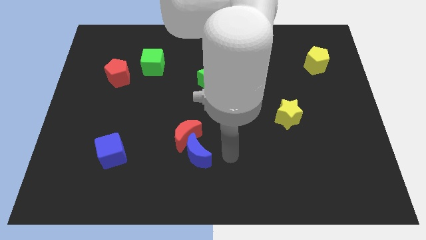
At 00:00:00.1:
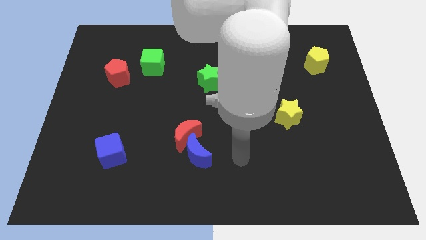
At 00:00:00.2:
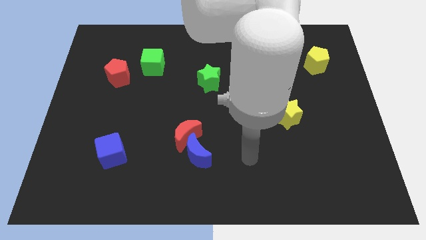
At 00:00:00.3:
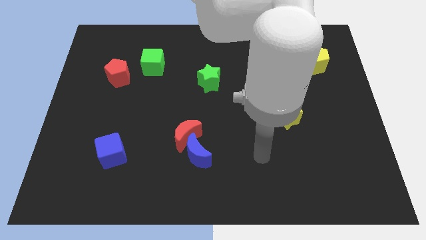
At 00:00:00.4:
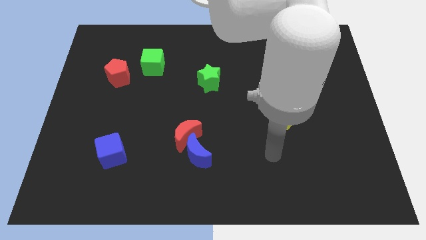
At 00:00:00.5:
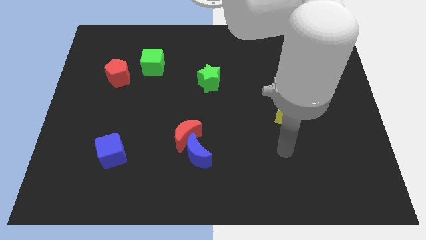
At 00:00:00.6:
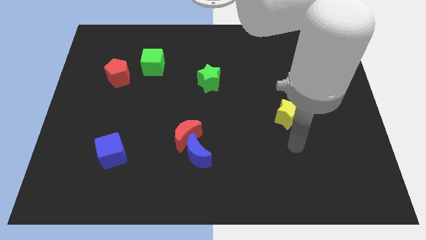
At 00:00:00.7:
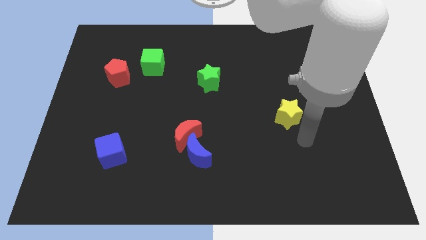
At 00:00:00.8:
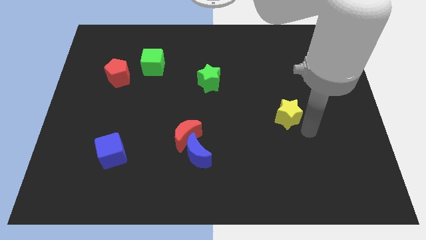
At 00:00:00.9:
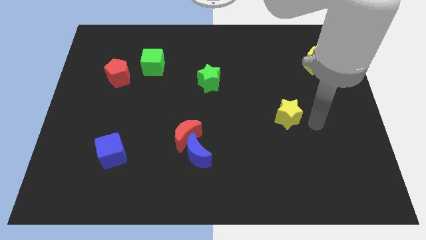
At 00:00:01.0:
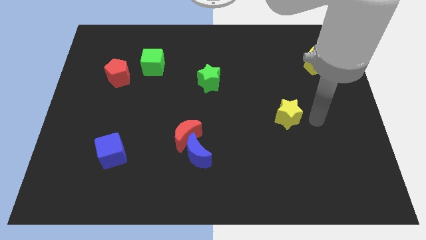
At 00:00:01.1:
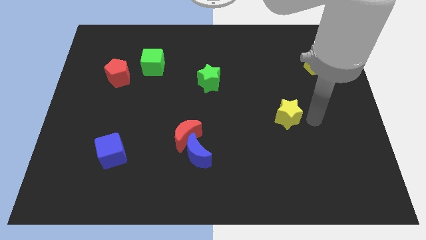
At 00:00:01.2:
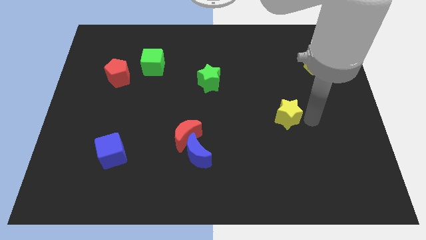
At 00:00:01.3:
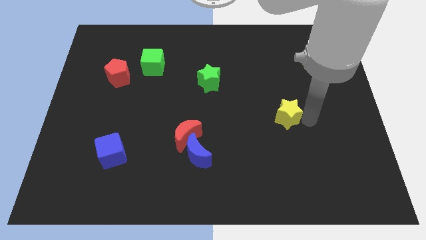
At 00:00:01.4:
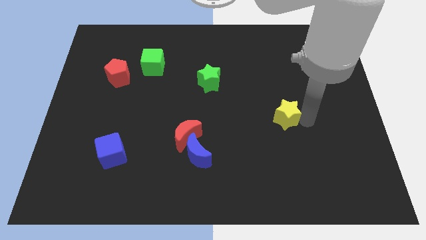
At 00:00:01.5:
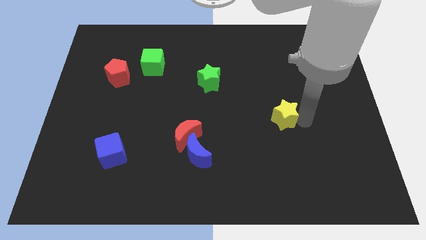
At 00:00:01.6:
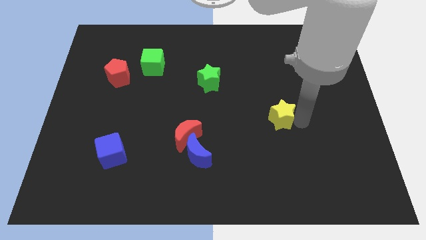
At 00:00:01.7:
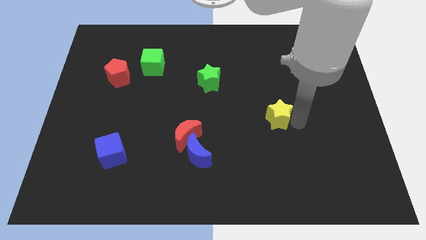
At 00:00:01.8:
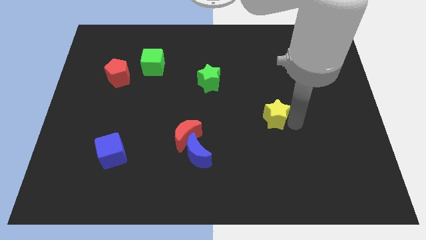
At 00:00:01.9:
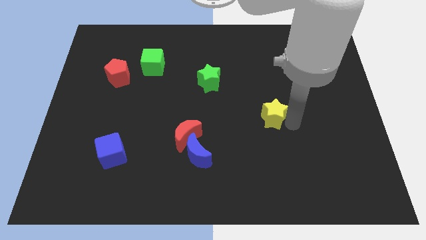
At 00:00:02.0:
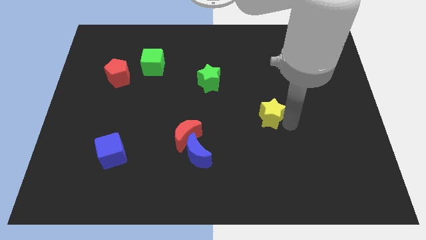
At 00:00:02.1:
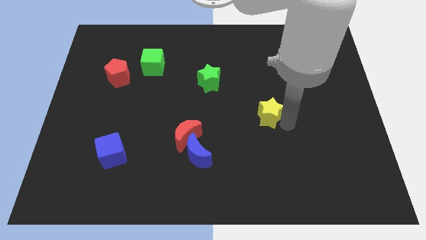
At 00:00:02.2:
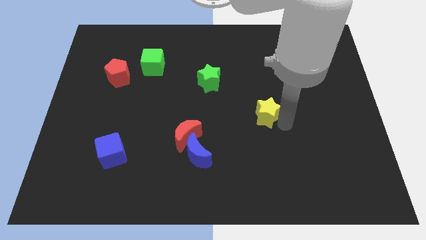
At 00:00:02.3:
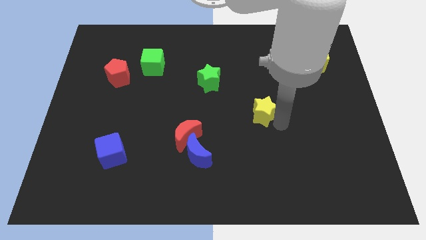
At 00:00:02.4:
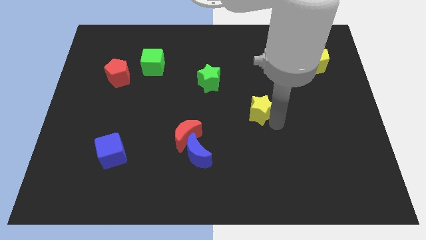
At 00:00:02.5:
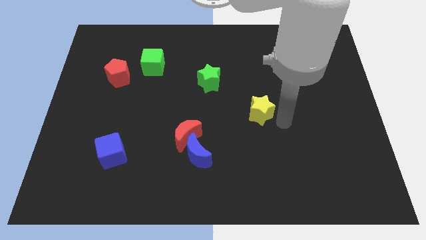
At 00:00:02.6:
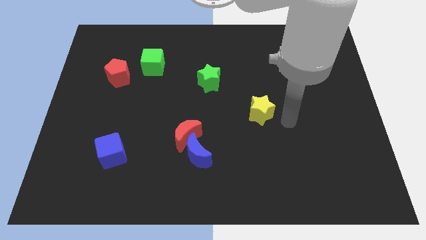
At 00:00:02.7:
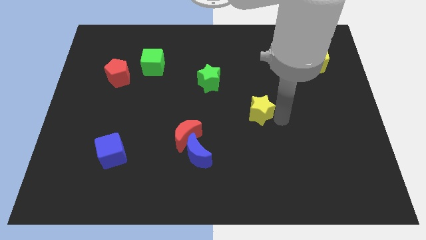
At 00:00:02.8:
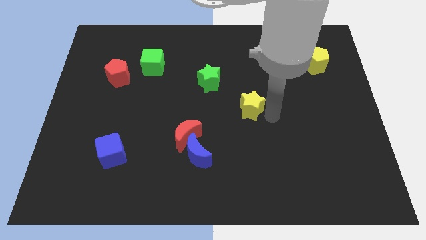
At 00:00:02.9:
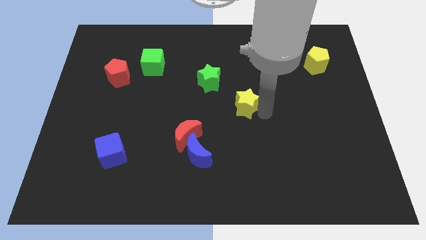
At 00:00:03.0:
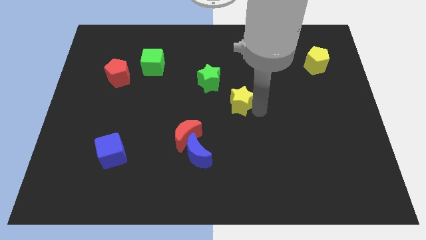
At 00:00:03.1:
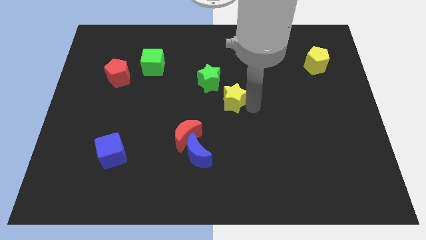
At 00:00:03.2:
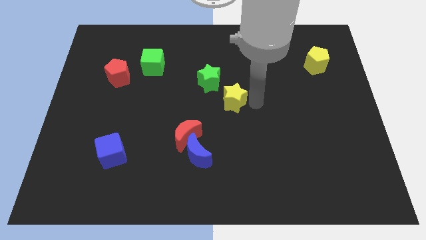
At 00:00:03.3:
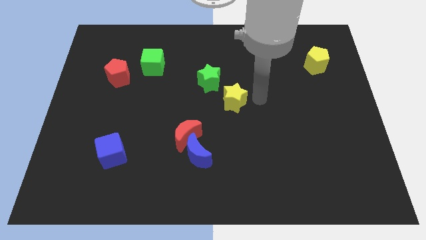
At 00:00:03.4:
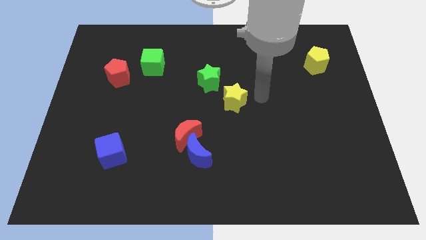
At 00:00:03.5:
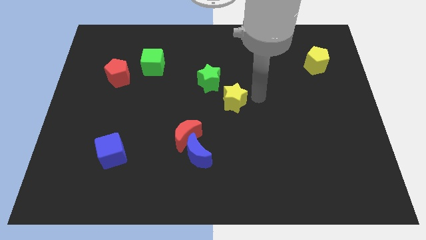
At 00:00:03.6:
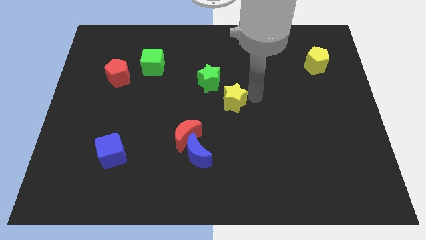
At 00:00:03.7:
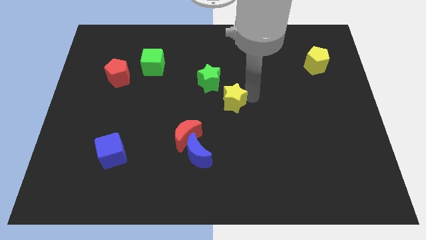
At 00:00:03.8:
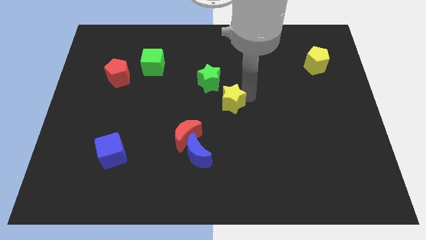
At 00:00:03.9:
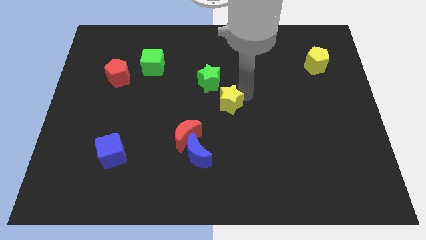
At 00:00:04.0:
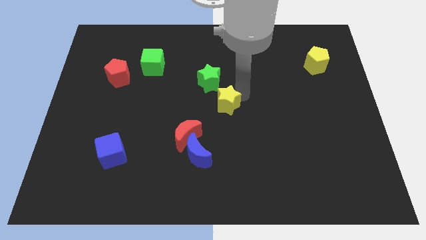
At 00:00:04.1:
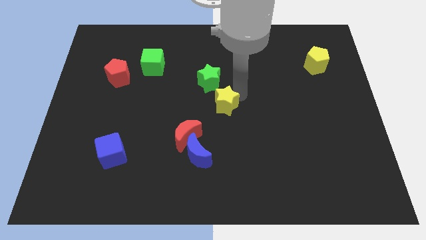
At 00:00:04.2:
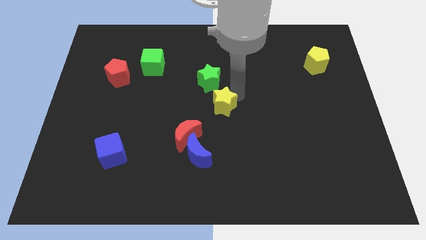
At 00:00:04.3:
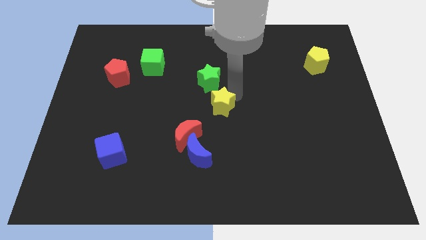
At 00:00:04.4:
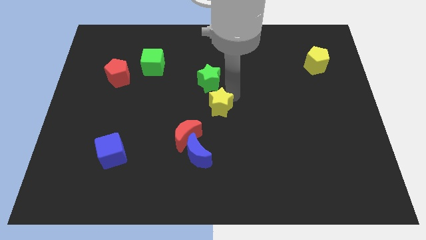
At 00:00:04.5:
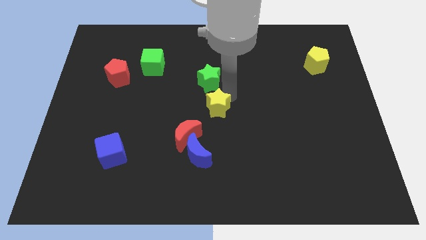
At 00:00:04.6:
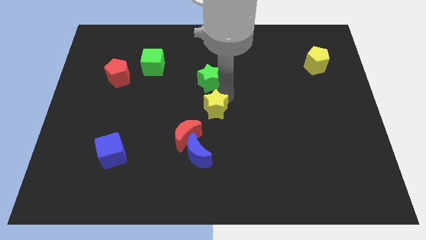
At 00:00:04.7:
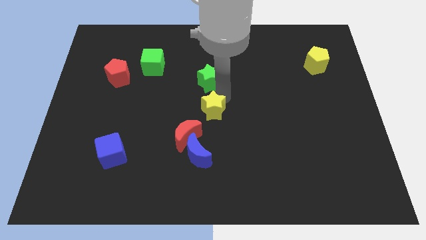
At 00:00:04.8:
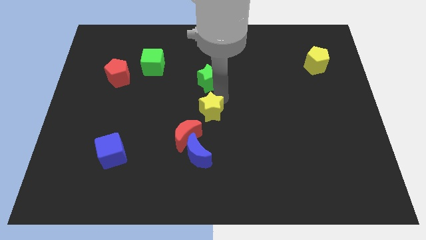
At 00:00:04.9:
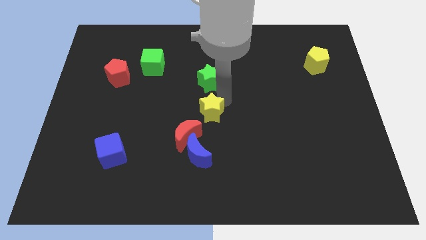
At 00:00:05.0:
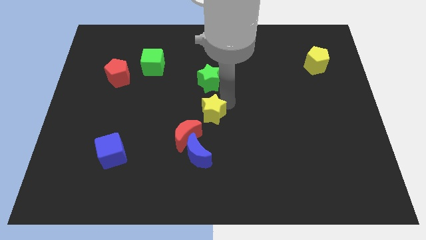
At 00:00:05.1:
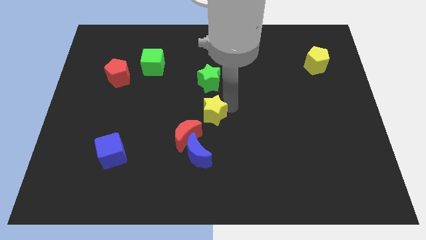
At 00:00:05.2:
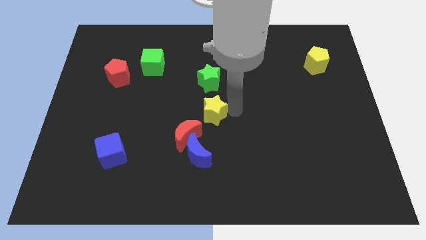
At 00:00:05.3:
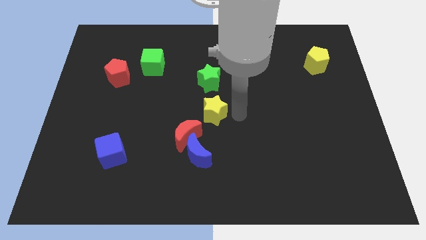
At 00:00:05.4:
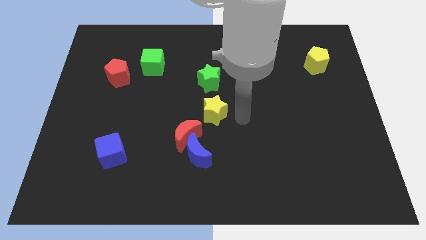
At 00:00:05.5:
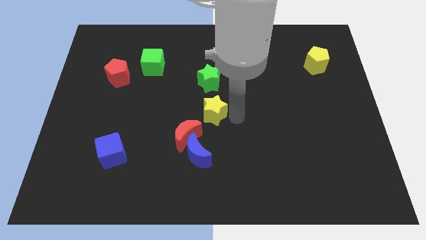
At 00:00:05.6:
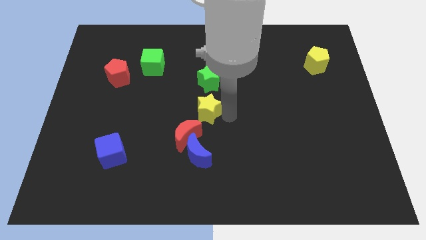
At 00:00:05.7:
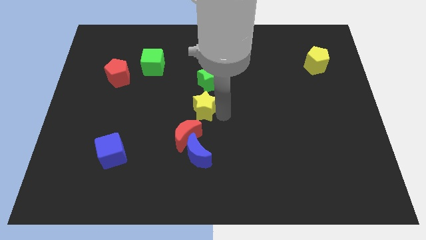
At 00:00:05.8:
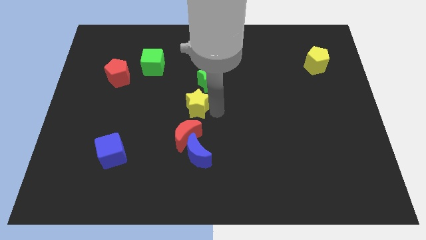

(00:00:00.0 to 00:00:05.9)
push the yellow star to the left

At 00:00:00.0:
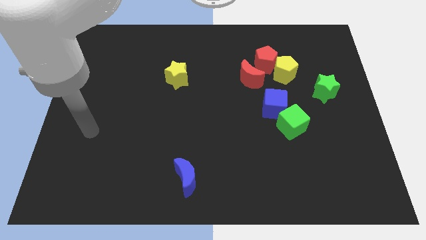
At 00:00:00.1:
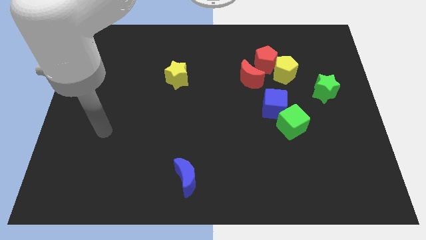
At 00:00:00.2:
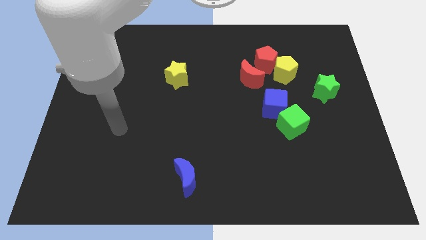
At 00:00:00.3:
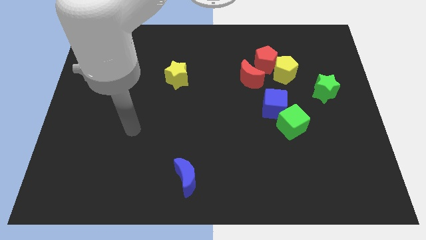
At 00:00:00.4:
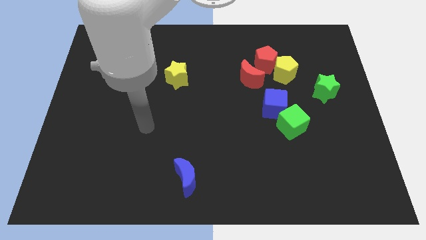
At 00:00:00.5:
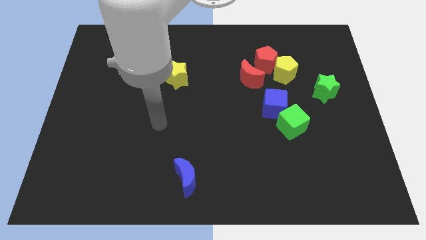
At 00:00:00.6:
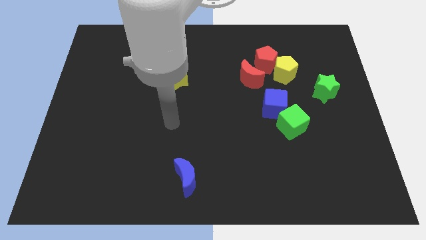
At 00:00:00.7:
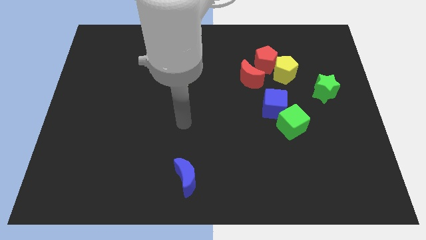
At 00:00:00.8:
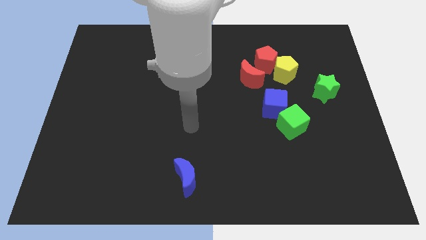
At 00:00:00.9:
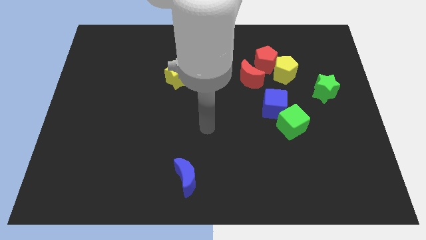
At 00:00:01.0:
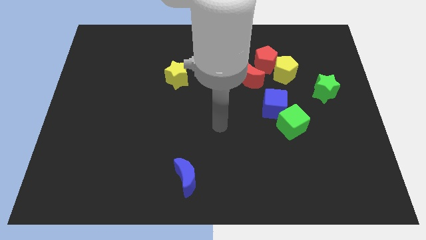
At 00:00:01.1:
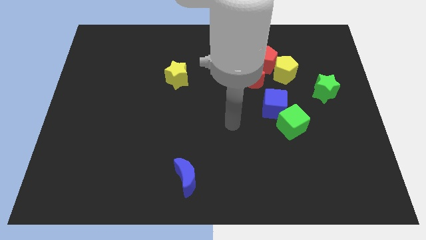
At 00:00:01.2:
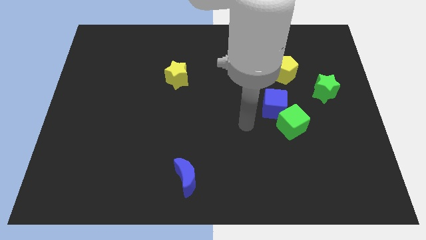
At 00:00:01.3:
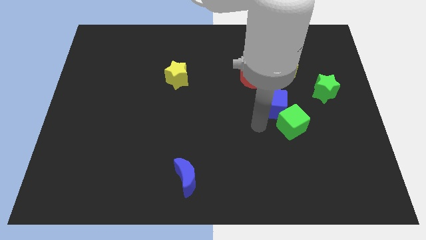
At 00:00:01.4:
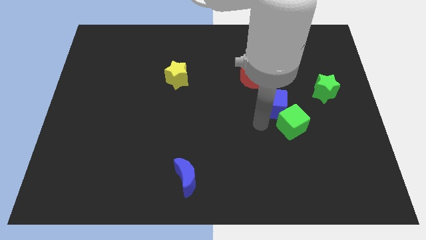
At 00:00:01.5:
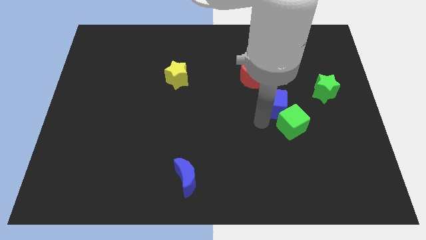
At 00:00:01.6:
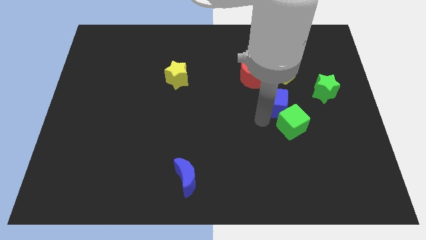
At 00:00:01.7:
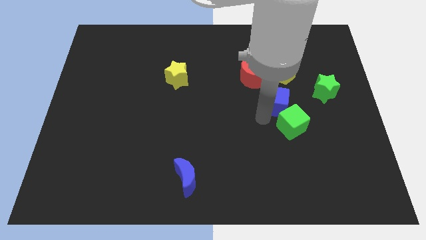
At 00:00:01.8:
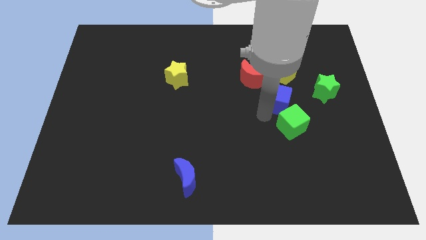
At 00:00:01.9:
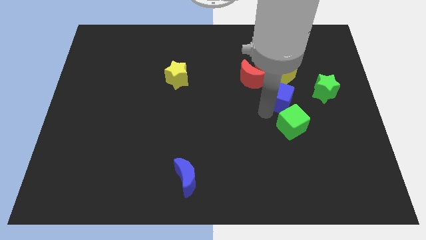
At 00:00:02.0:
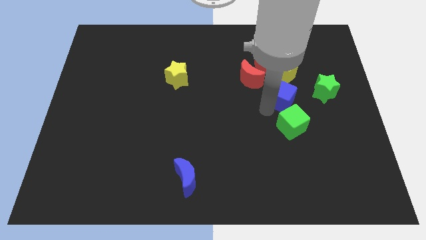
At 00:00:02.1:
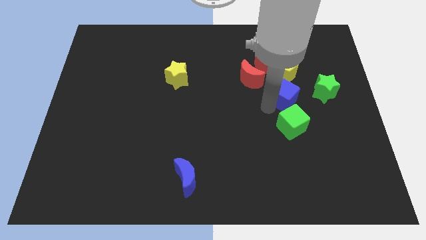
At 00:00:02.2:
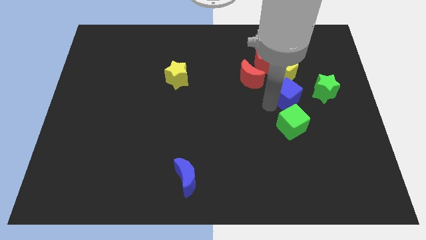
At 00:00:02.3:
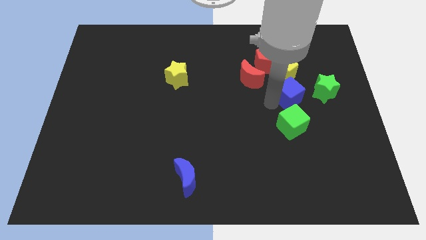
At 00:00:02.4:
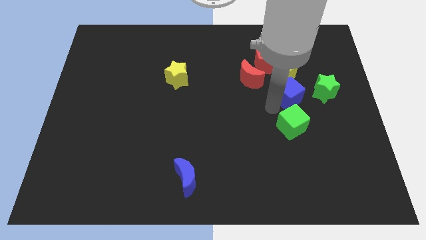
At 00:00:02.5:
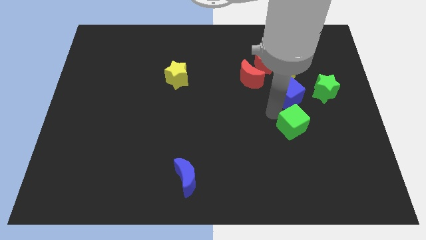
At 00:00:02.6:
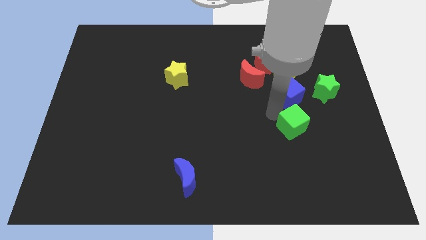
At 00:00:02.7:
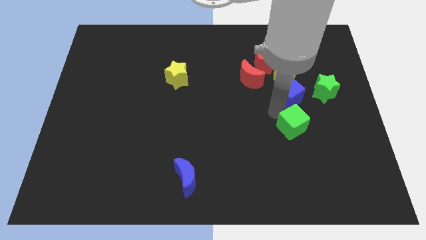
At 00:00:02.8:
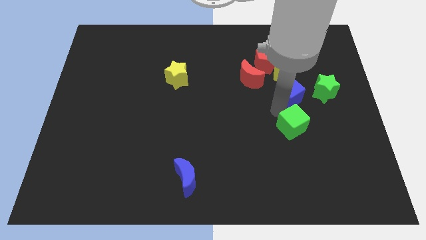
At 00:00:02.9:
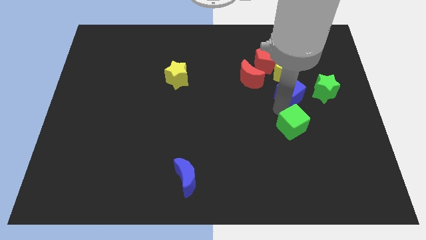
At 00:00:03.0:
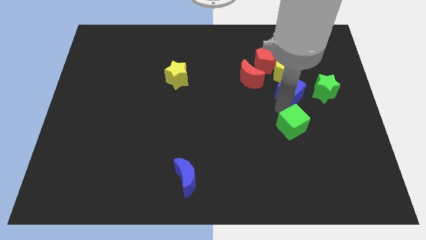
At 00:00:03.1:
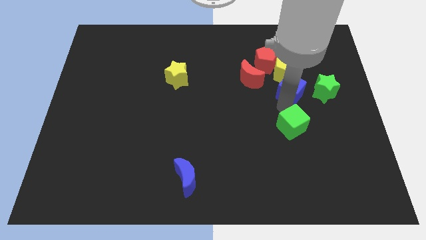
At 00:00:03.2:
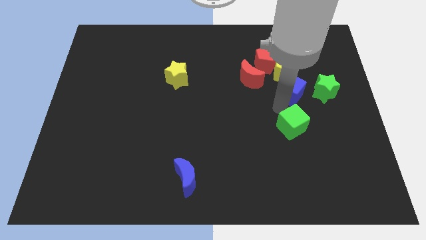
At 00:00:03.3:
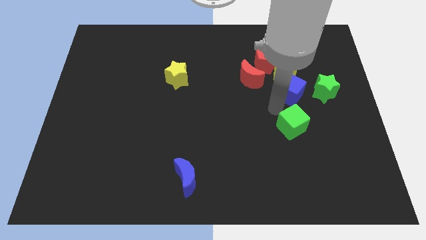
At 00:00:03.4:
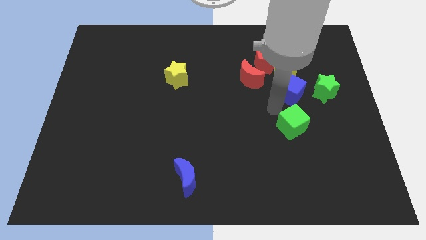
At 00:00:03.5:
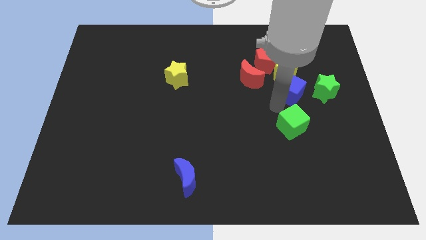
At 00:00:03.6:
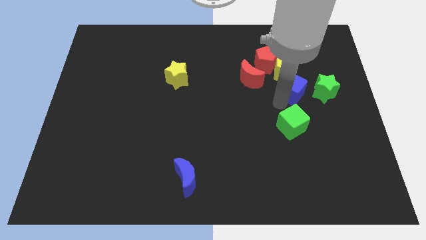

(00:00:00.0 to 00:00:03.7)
slide the blue cube a little diagonally upwards and to the right
